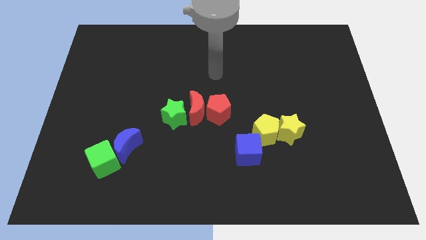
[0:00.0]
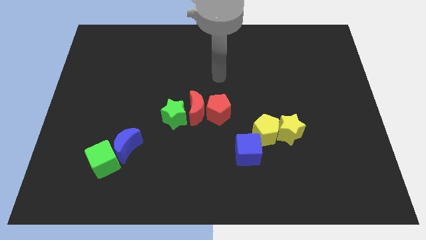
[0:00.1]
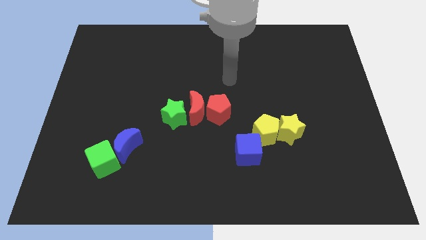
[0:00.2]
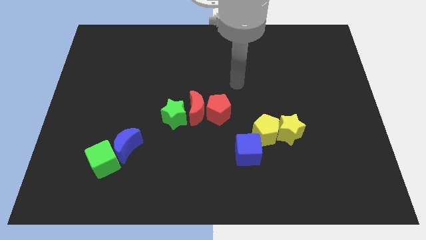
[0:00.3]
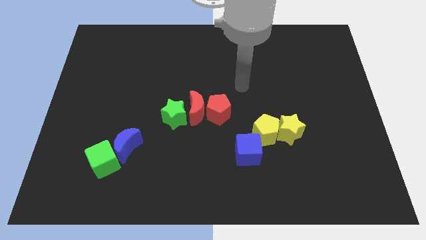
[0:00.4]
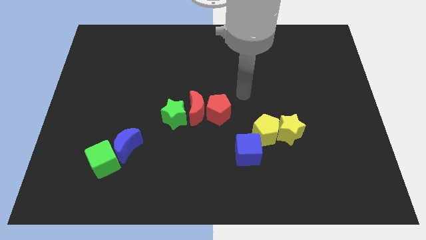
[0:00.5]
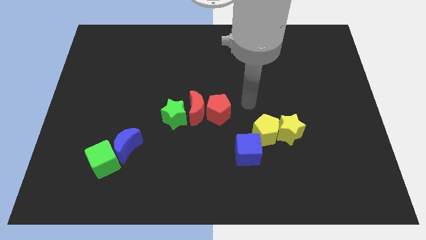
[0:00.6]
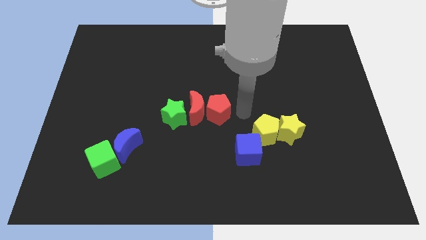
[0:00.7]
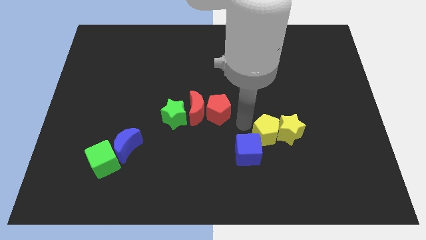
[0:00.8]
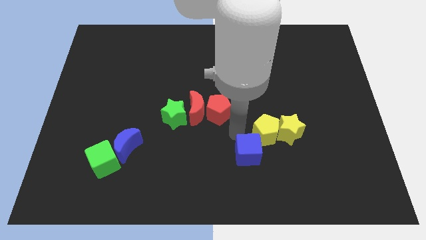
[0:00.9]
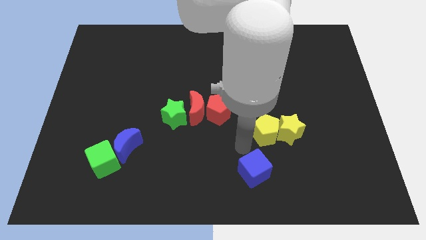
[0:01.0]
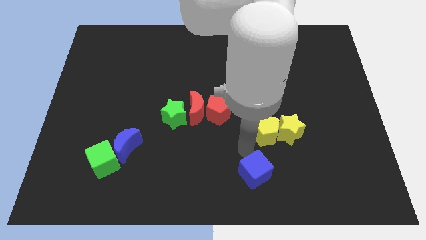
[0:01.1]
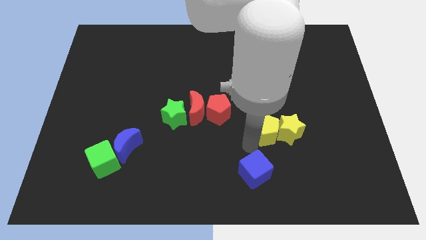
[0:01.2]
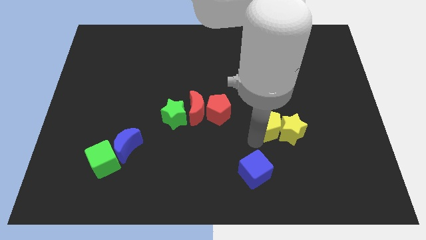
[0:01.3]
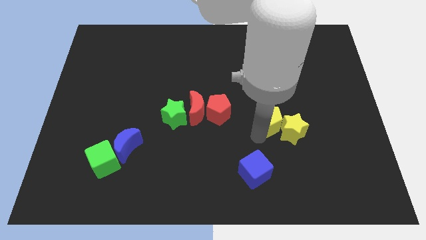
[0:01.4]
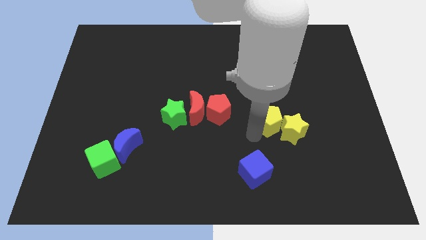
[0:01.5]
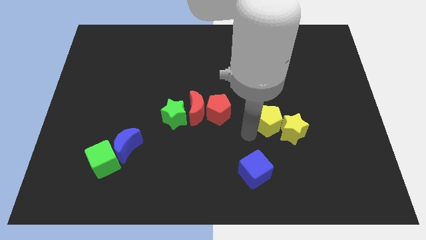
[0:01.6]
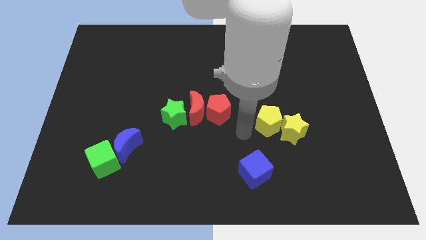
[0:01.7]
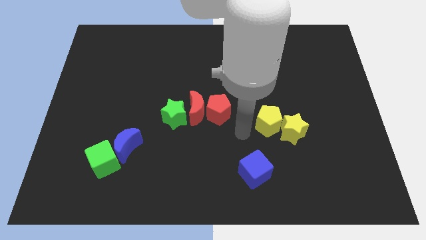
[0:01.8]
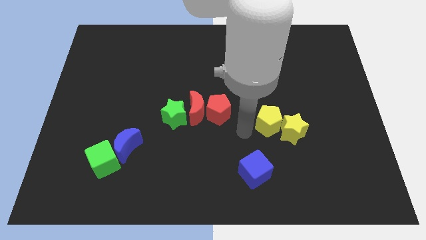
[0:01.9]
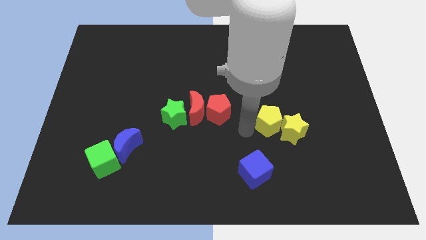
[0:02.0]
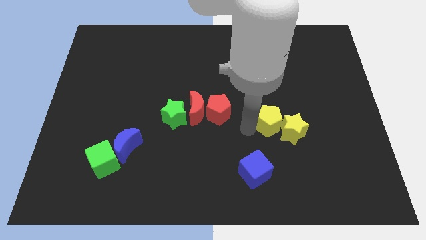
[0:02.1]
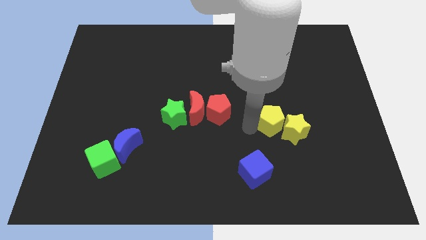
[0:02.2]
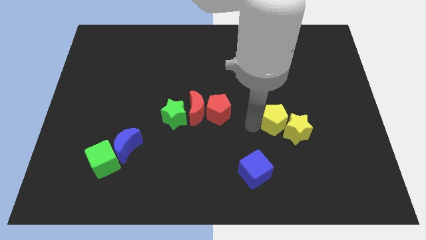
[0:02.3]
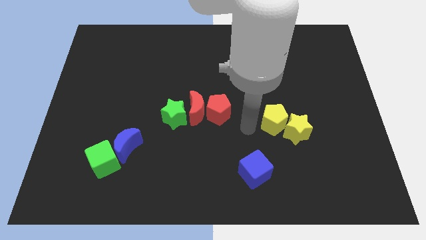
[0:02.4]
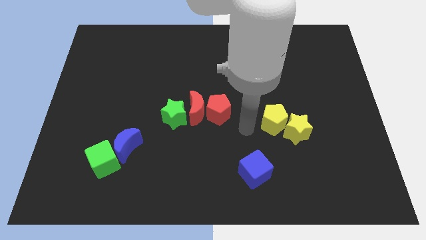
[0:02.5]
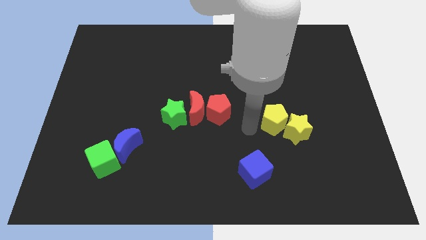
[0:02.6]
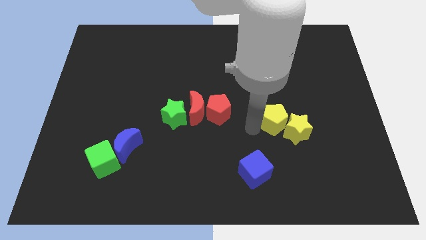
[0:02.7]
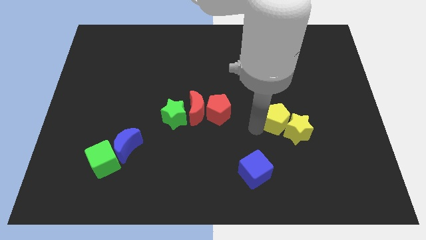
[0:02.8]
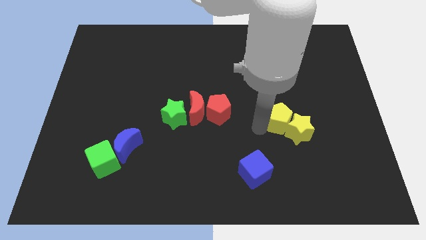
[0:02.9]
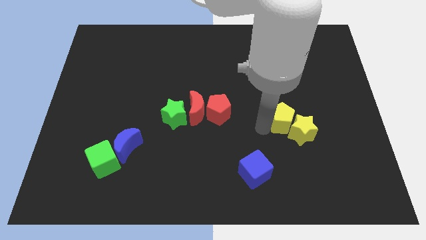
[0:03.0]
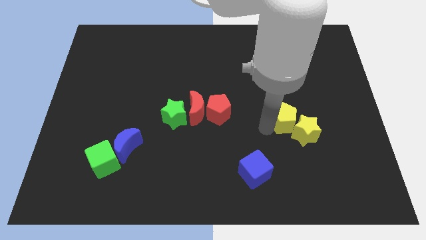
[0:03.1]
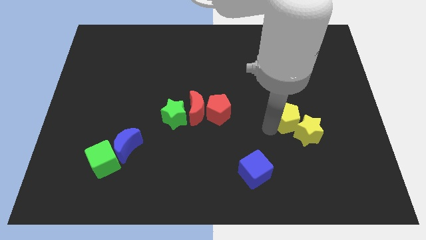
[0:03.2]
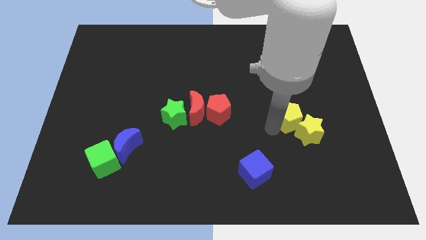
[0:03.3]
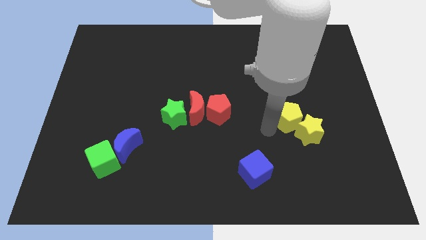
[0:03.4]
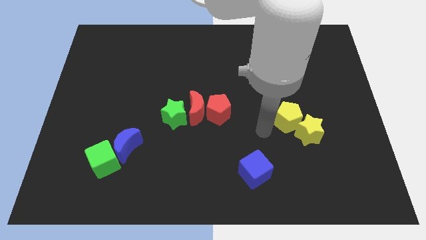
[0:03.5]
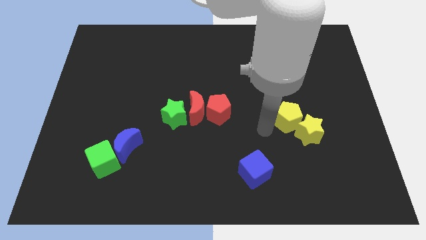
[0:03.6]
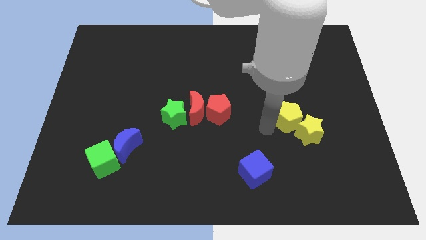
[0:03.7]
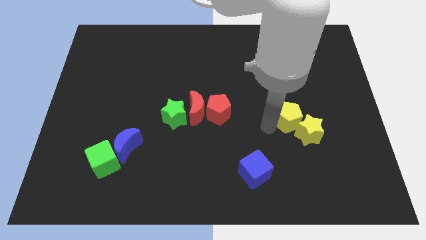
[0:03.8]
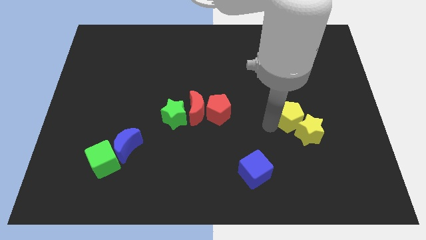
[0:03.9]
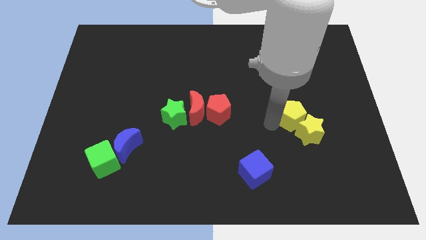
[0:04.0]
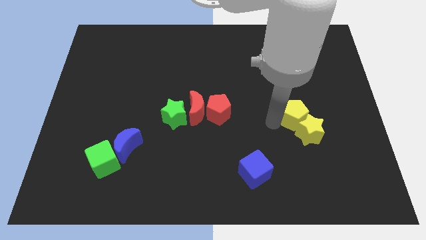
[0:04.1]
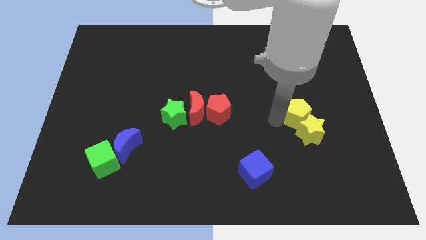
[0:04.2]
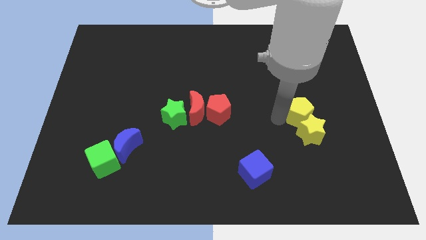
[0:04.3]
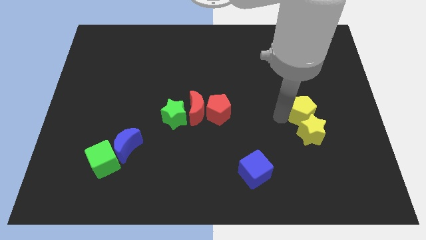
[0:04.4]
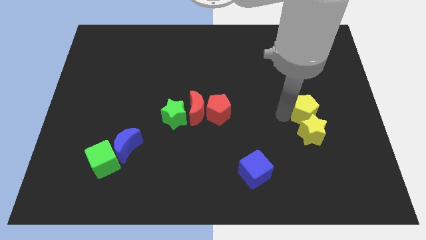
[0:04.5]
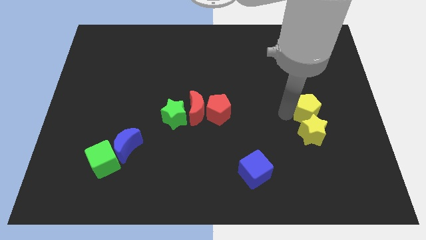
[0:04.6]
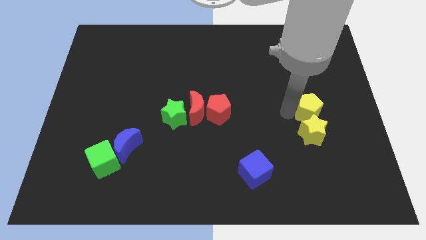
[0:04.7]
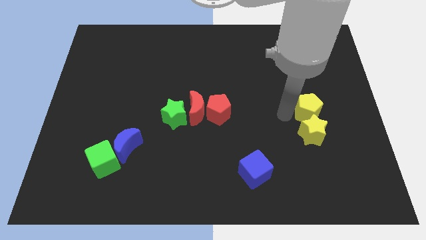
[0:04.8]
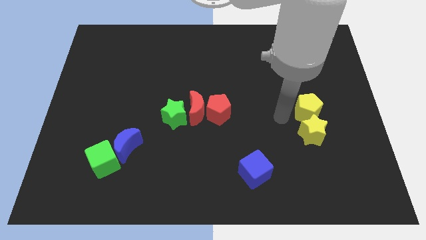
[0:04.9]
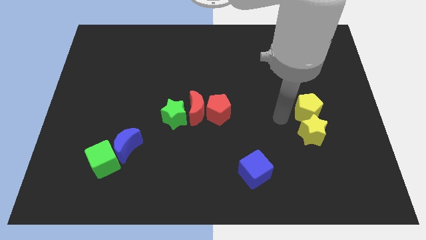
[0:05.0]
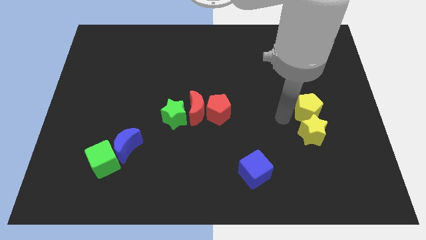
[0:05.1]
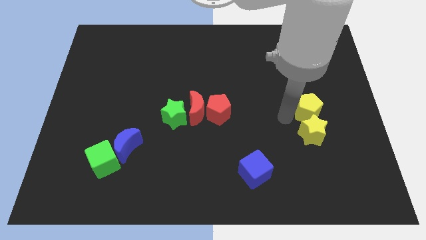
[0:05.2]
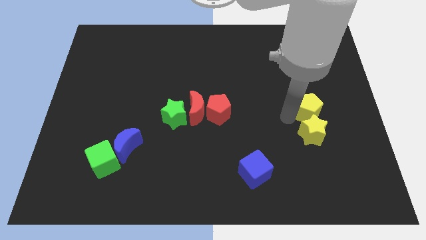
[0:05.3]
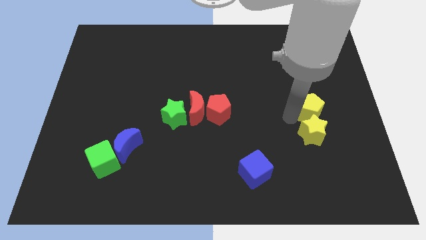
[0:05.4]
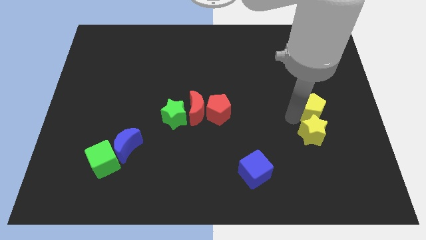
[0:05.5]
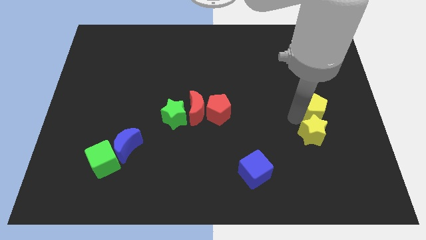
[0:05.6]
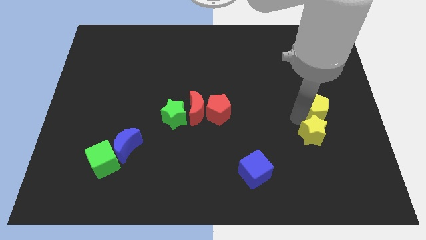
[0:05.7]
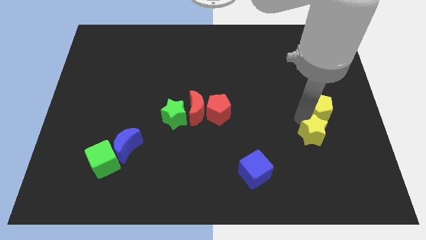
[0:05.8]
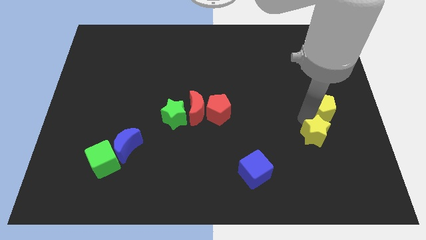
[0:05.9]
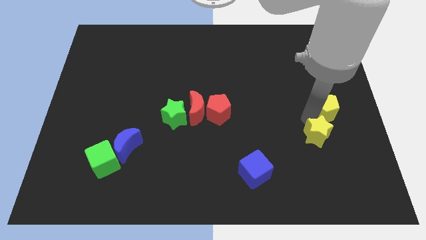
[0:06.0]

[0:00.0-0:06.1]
move the yellow pentagon to the center right
